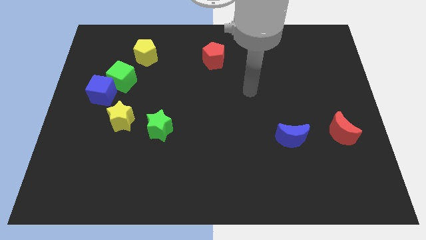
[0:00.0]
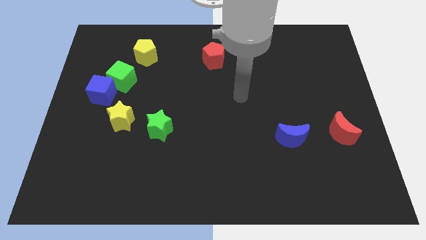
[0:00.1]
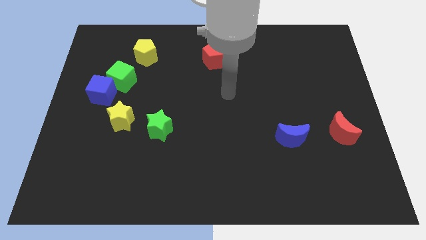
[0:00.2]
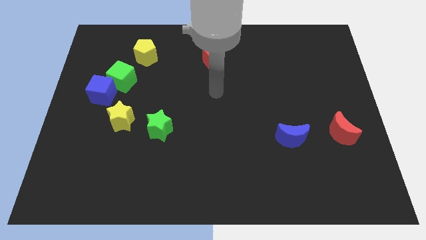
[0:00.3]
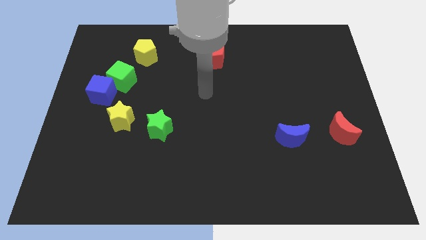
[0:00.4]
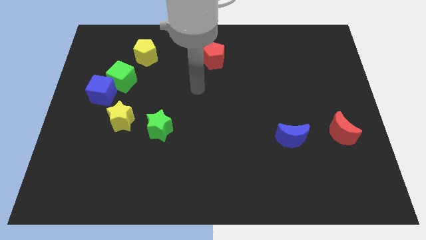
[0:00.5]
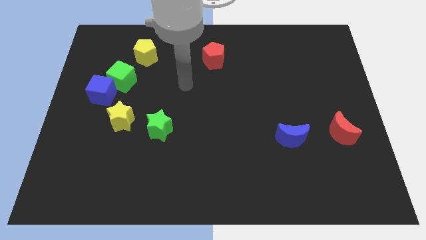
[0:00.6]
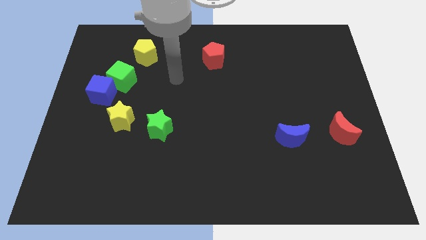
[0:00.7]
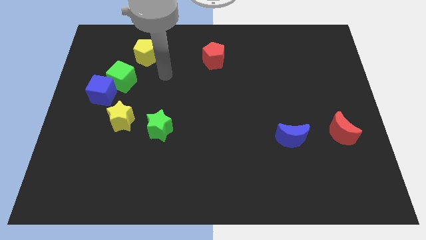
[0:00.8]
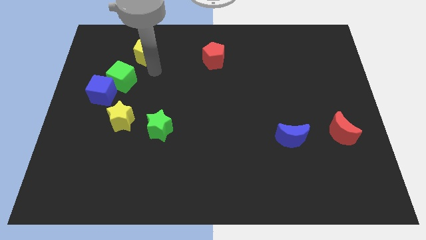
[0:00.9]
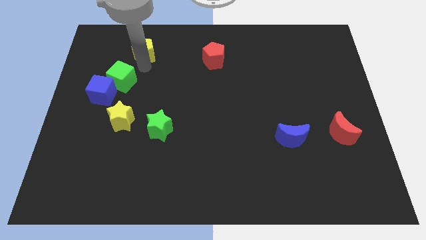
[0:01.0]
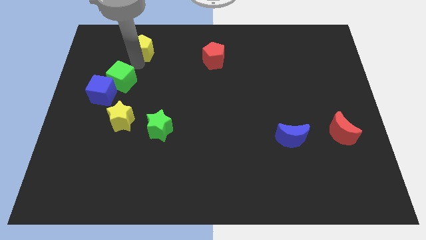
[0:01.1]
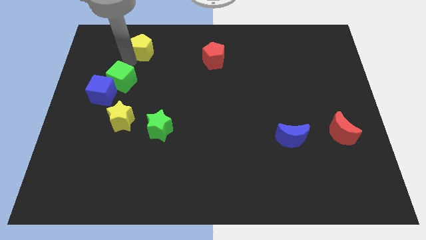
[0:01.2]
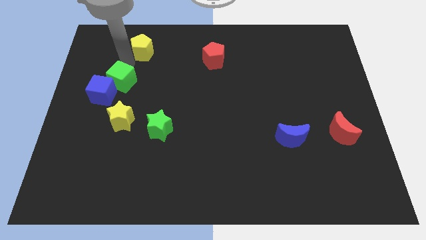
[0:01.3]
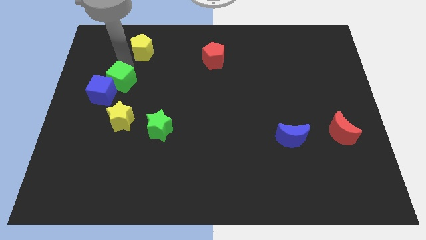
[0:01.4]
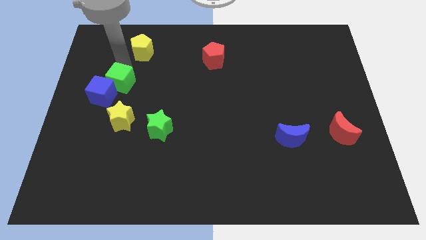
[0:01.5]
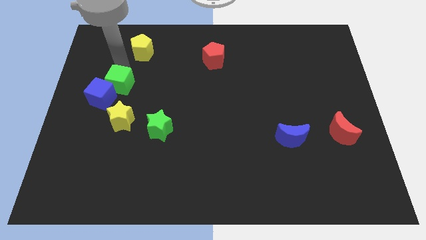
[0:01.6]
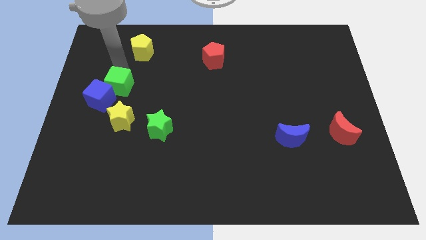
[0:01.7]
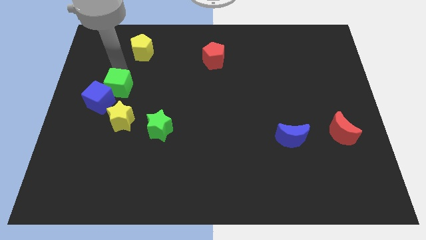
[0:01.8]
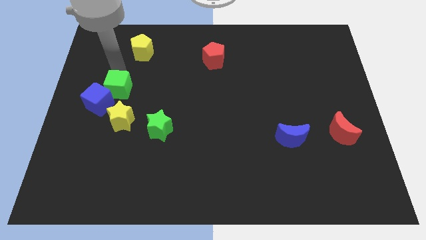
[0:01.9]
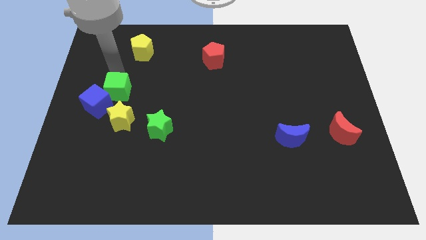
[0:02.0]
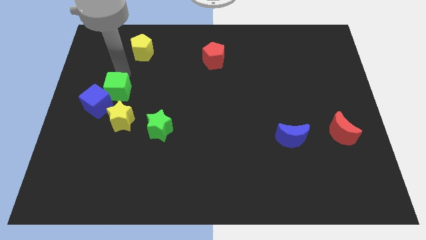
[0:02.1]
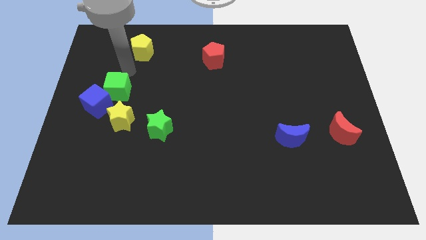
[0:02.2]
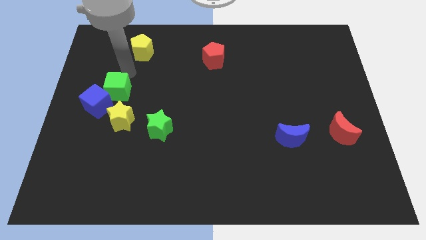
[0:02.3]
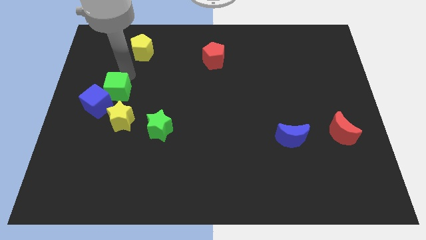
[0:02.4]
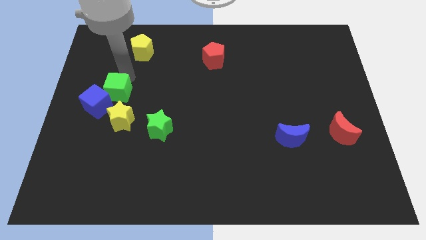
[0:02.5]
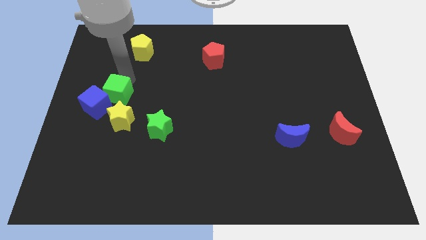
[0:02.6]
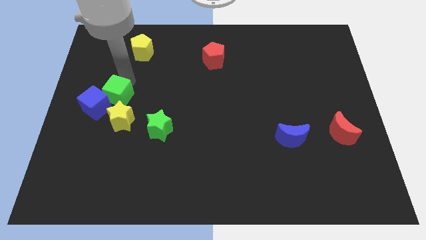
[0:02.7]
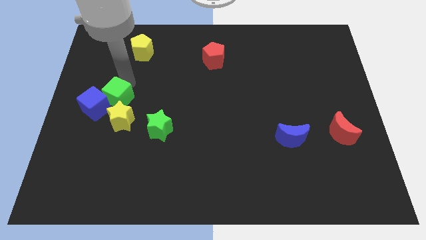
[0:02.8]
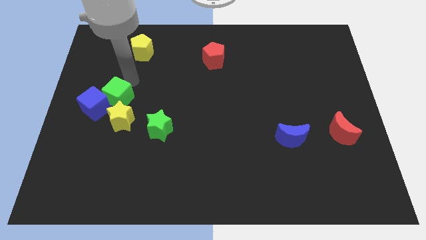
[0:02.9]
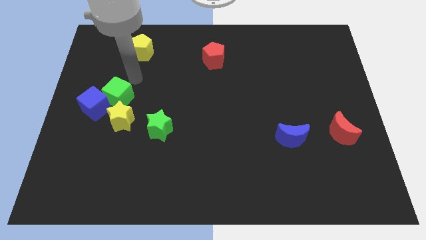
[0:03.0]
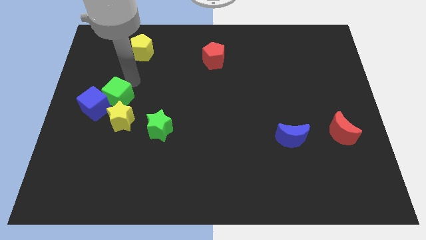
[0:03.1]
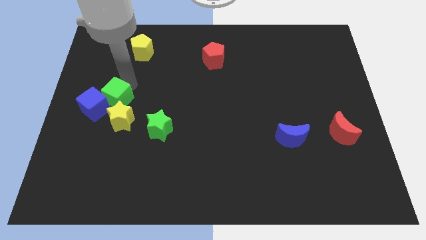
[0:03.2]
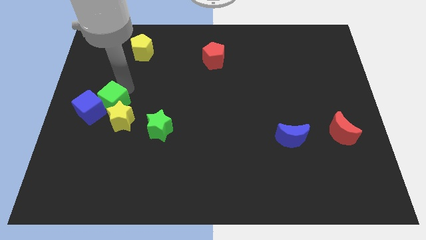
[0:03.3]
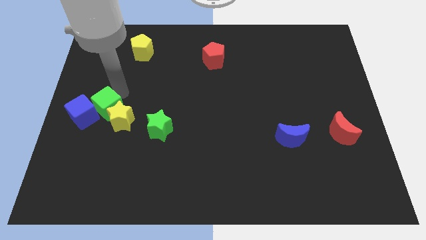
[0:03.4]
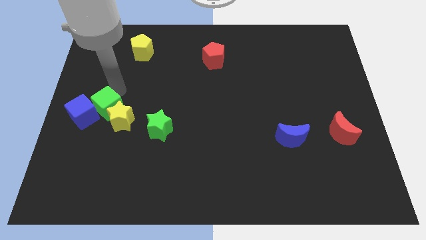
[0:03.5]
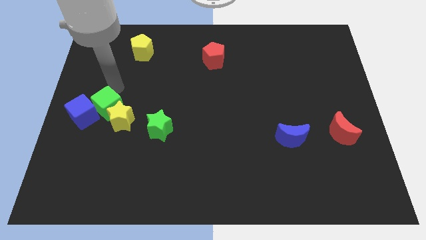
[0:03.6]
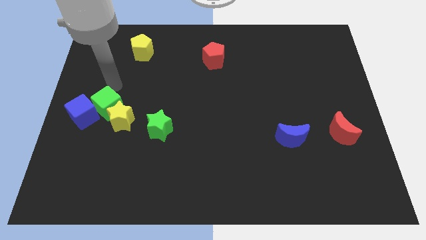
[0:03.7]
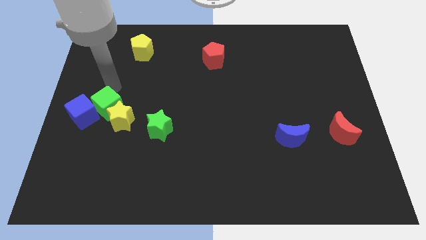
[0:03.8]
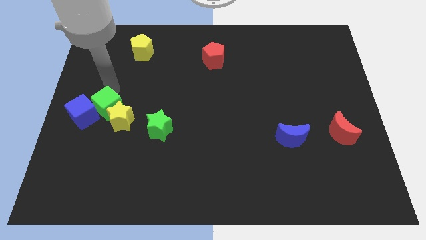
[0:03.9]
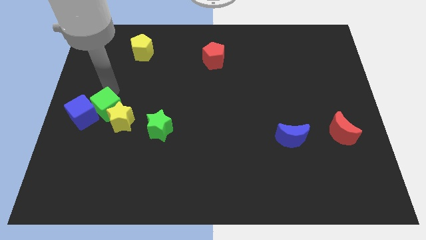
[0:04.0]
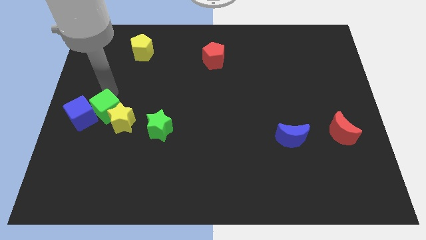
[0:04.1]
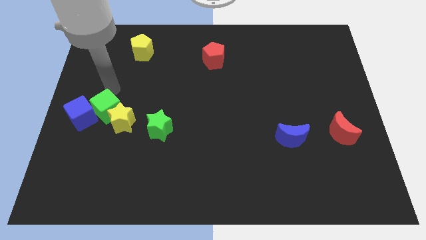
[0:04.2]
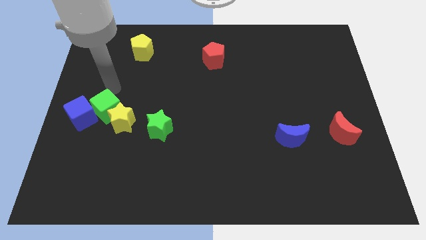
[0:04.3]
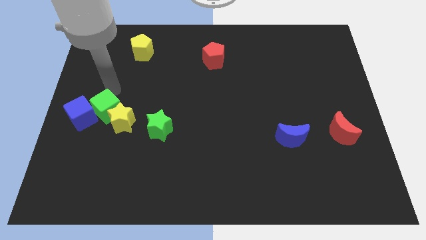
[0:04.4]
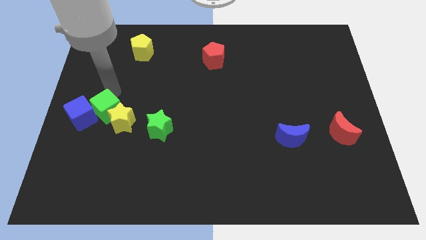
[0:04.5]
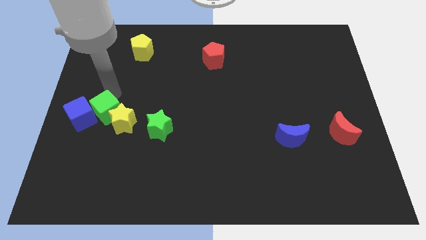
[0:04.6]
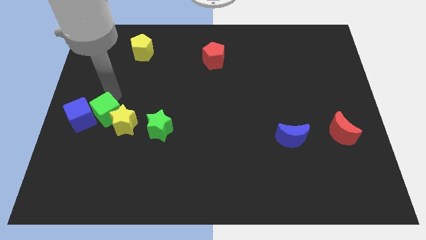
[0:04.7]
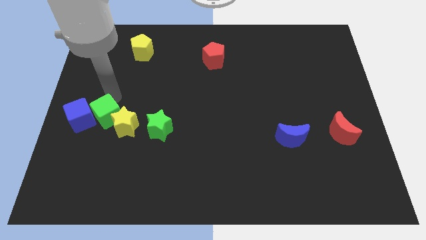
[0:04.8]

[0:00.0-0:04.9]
separate the green cube from the blue cube and yellow pentagon

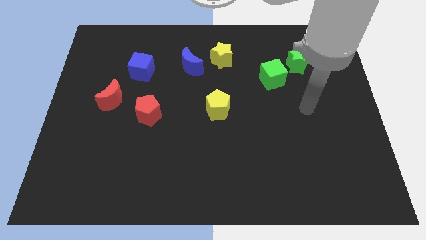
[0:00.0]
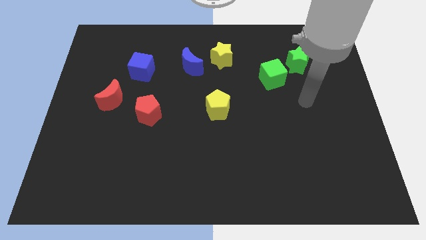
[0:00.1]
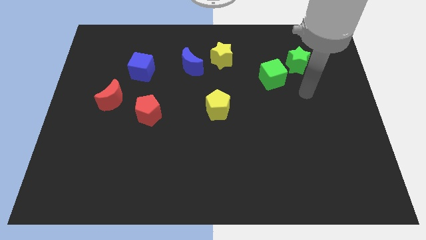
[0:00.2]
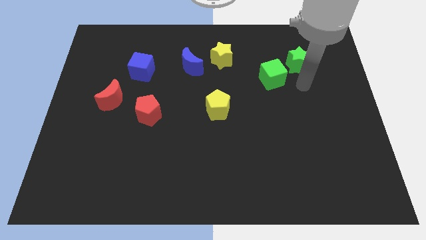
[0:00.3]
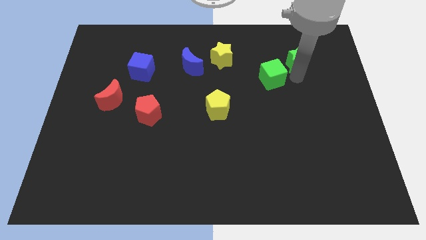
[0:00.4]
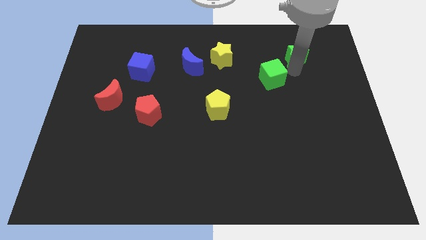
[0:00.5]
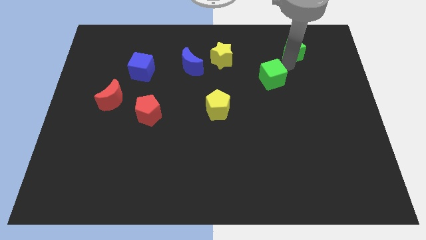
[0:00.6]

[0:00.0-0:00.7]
separate the green cube from the green star

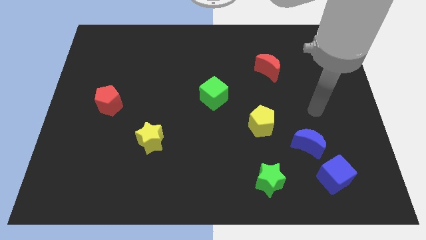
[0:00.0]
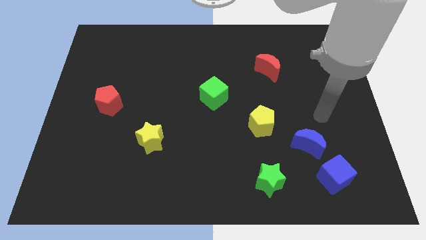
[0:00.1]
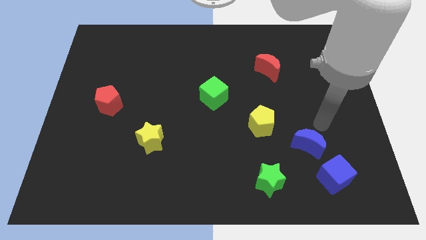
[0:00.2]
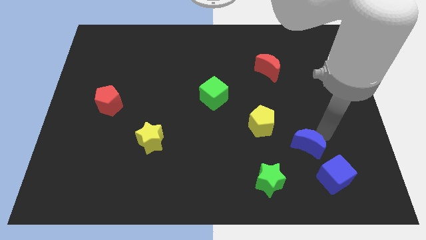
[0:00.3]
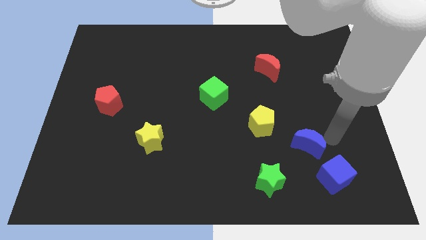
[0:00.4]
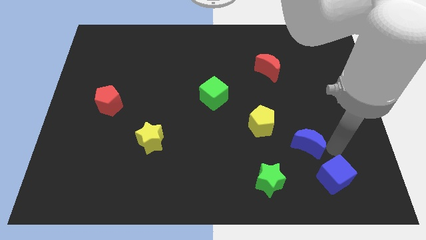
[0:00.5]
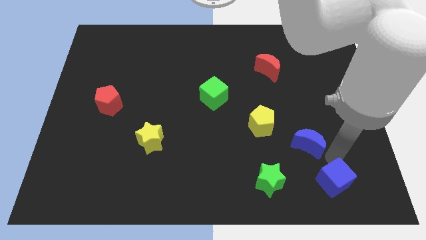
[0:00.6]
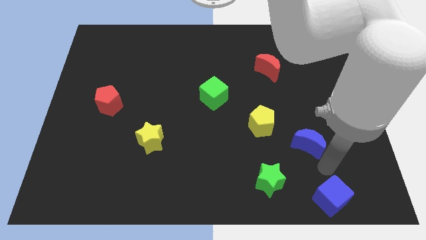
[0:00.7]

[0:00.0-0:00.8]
pull the blue moon apart from the blue cube

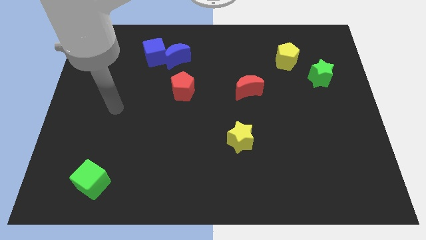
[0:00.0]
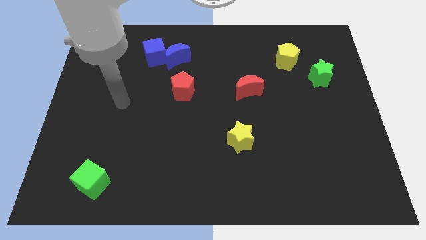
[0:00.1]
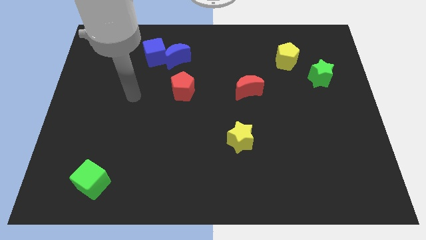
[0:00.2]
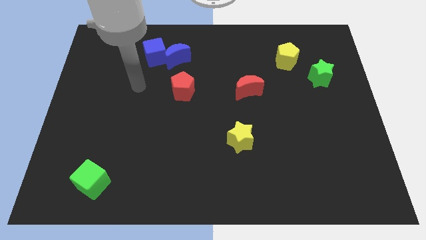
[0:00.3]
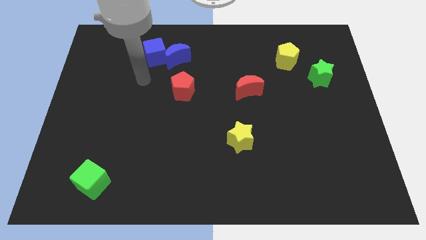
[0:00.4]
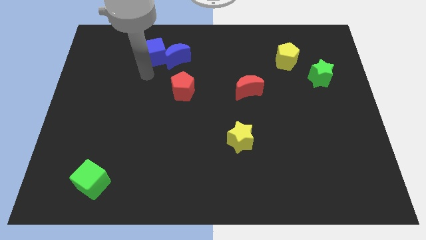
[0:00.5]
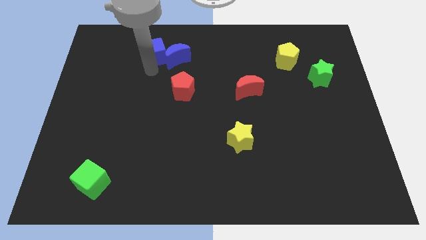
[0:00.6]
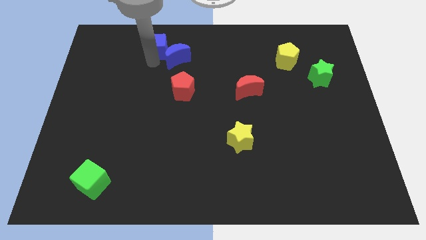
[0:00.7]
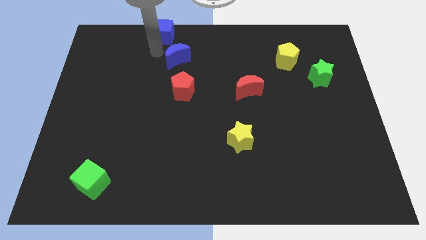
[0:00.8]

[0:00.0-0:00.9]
move the blue moon away from the blue cube

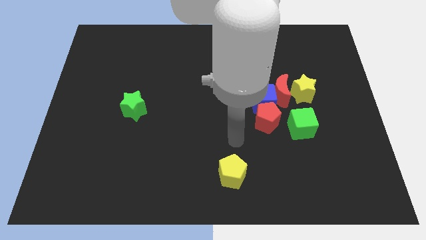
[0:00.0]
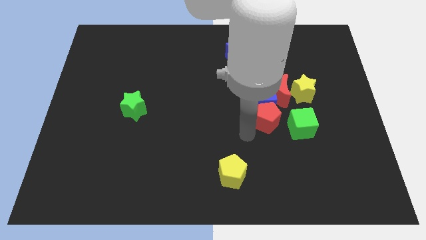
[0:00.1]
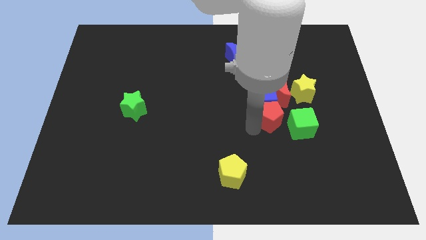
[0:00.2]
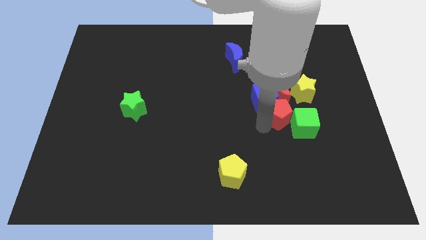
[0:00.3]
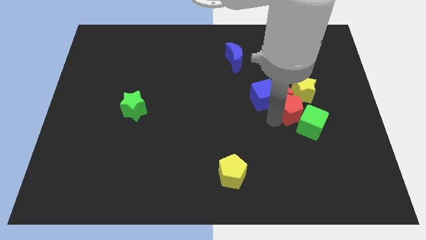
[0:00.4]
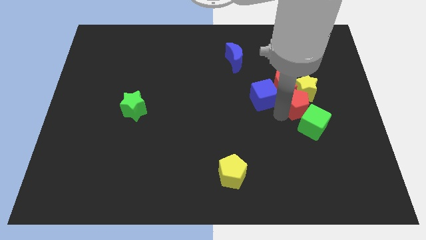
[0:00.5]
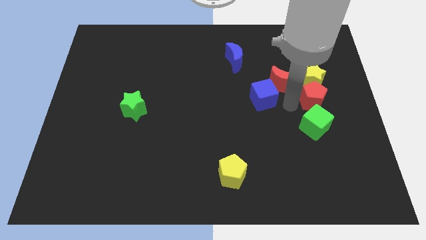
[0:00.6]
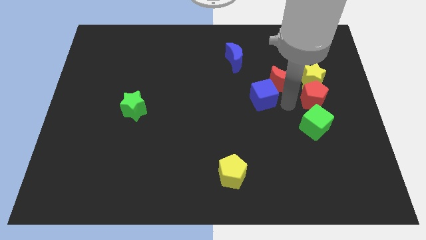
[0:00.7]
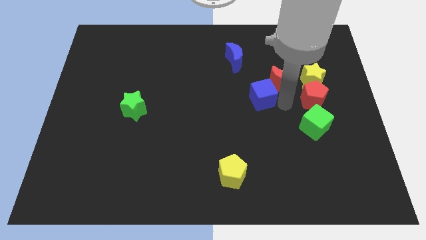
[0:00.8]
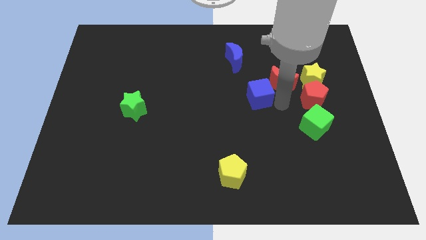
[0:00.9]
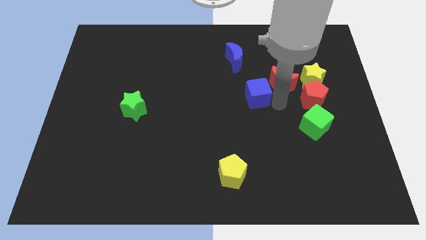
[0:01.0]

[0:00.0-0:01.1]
pull the blue cube apart from the red moon and red pentagon

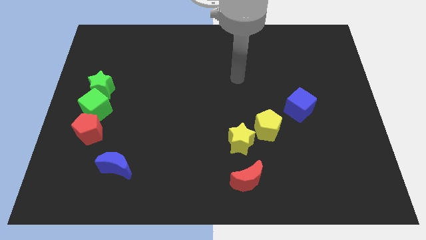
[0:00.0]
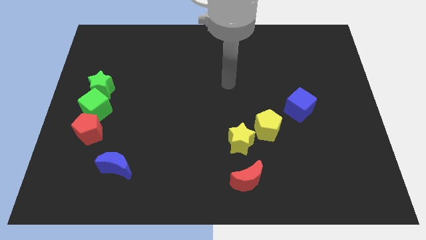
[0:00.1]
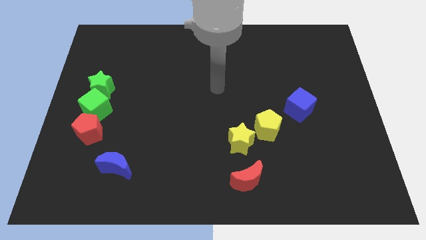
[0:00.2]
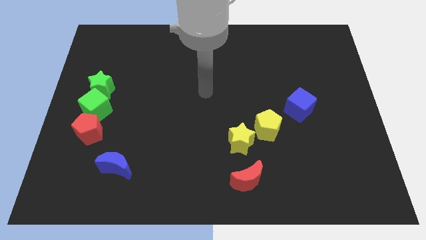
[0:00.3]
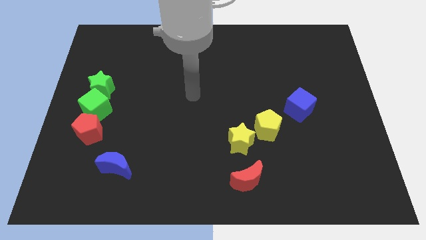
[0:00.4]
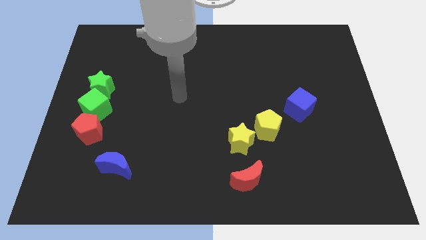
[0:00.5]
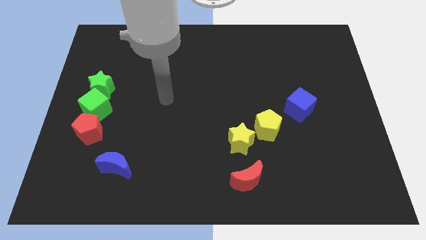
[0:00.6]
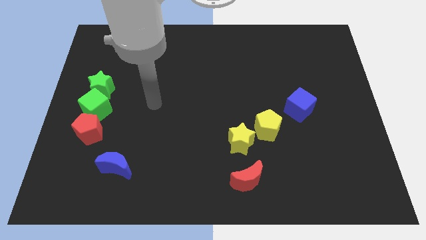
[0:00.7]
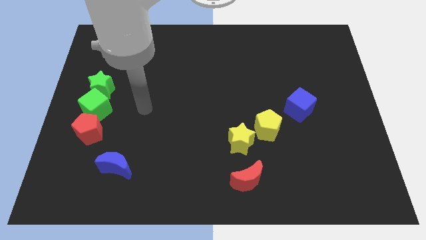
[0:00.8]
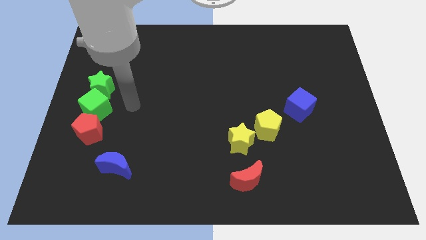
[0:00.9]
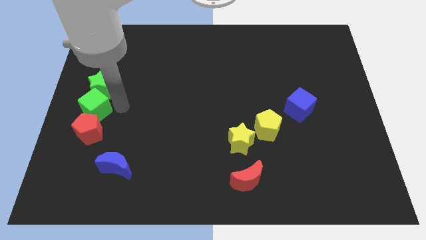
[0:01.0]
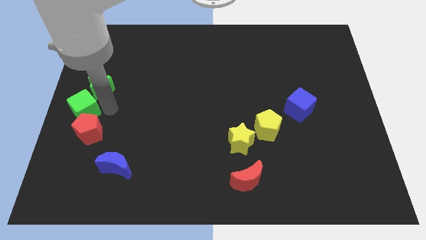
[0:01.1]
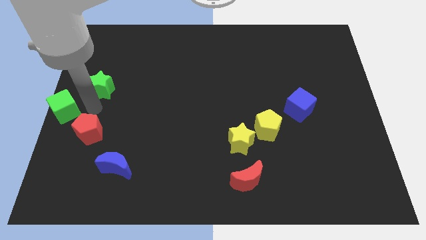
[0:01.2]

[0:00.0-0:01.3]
move the green star away from the green cube
